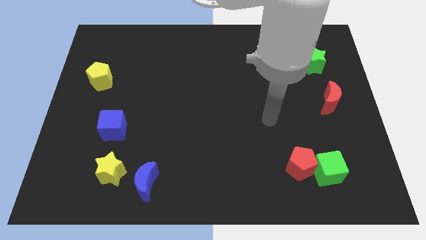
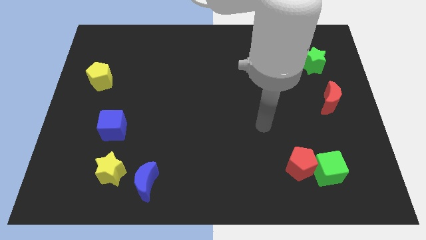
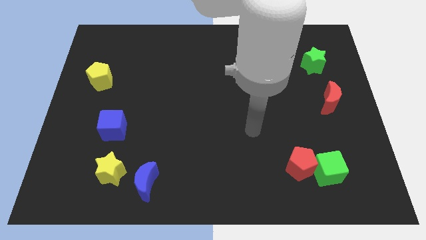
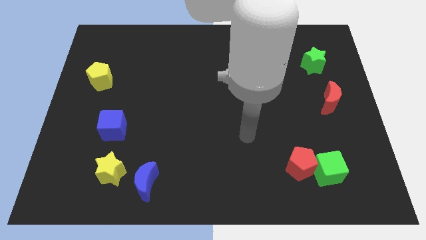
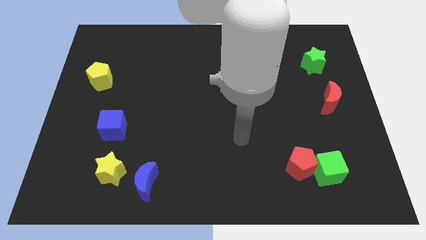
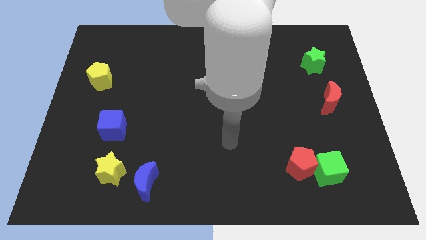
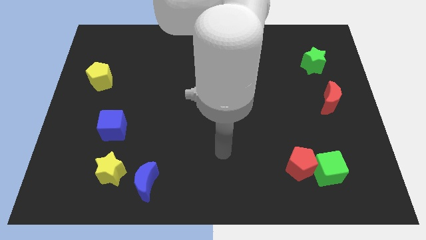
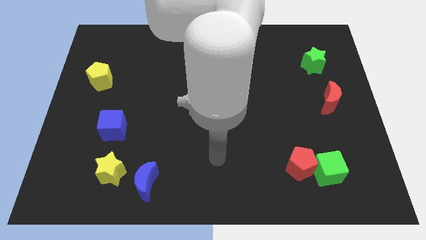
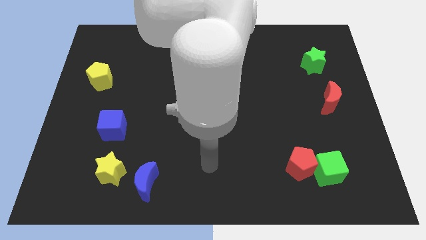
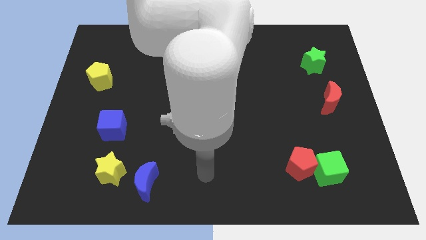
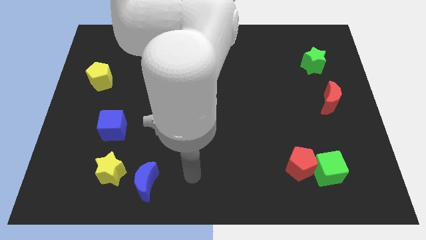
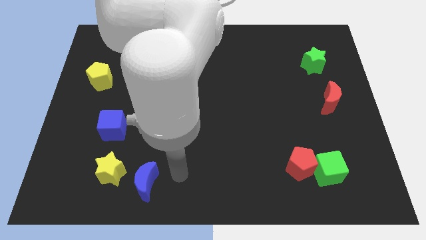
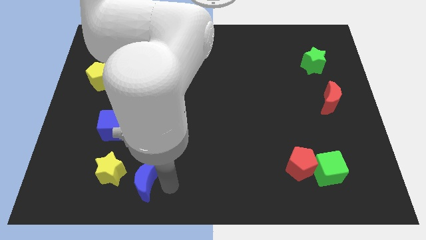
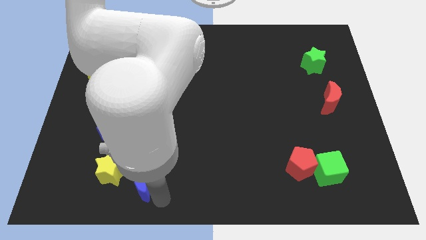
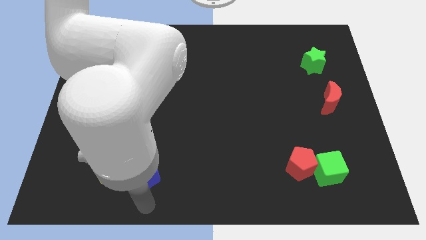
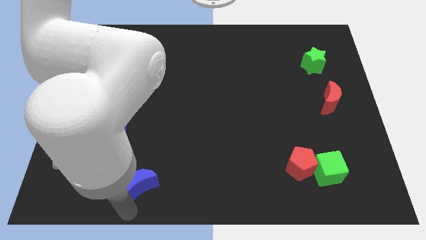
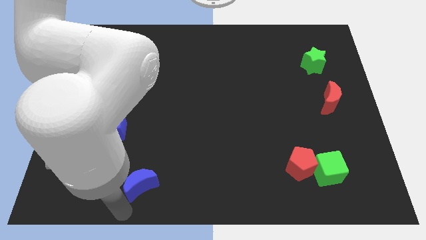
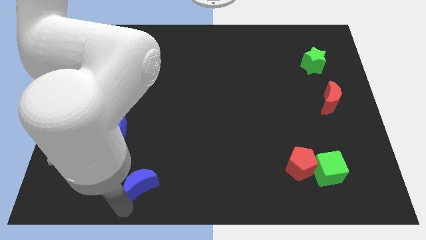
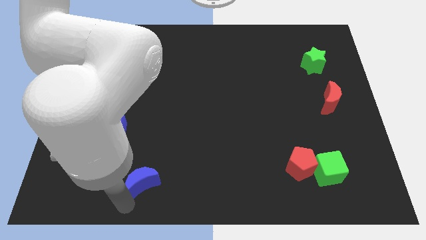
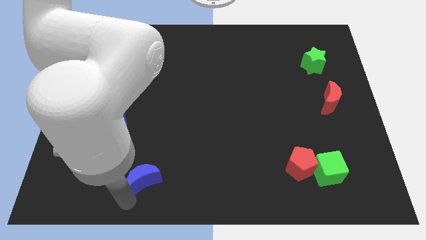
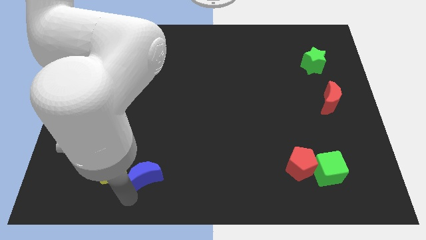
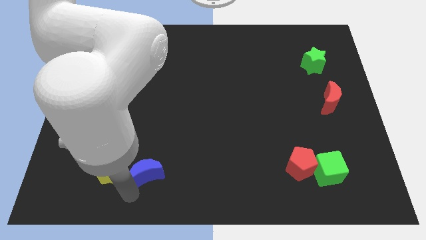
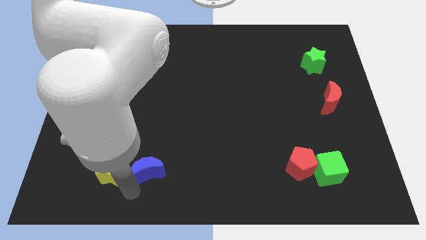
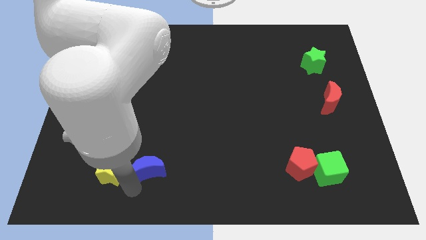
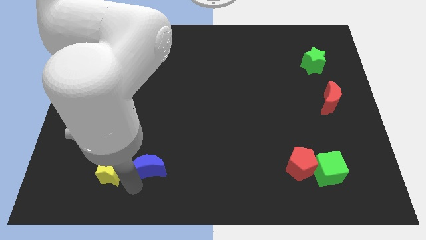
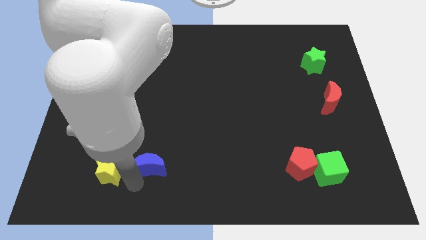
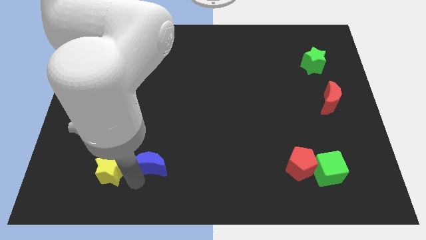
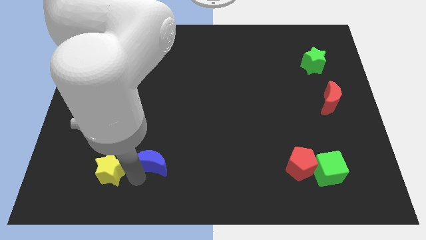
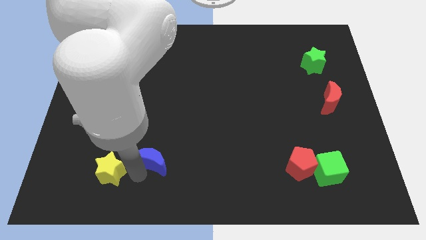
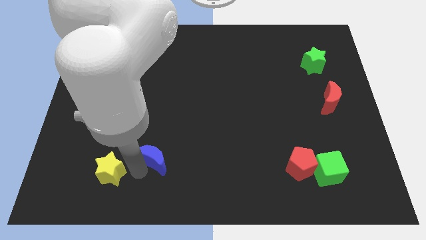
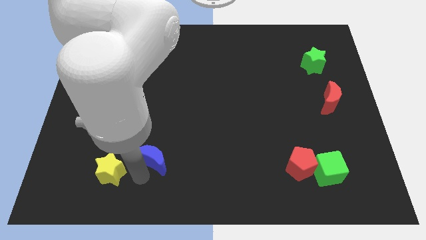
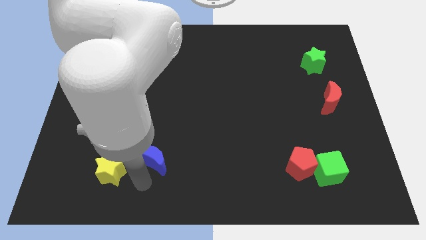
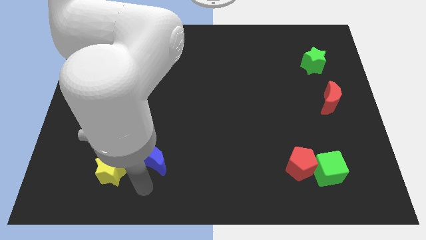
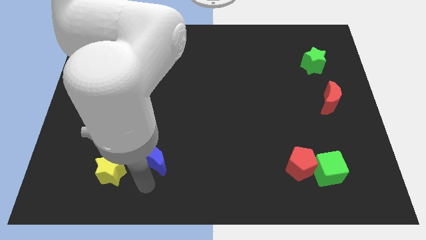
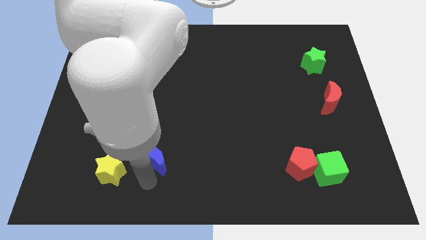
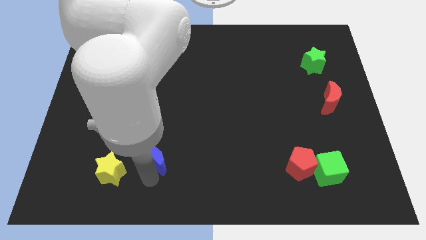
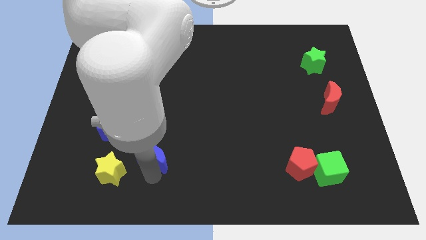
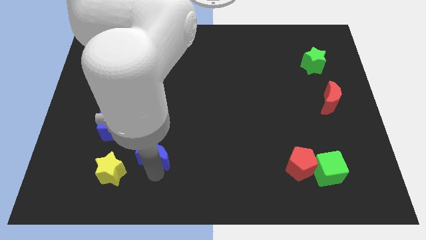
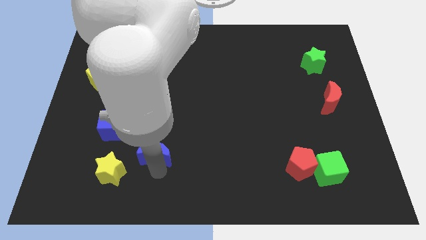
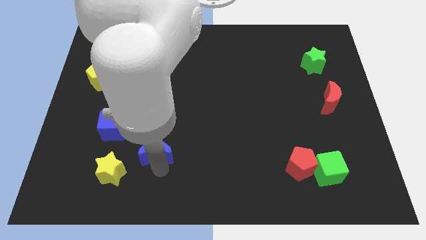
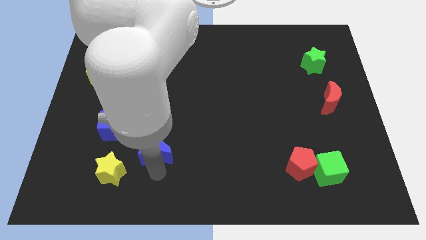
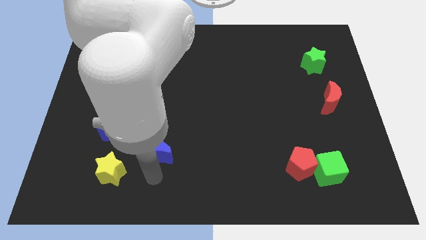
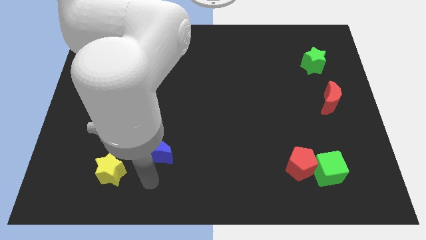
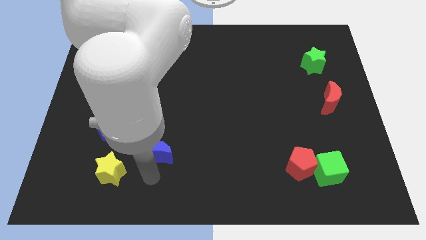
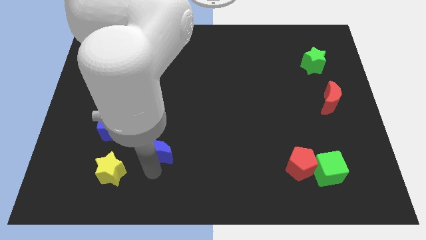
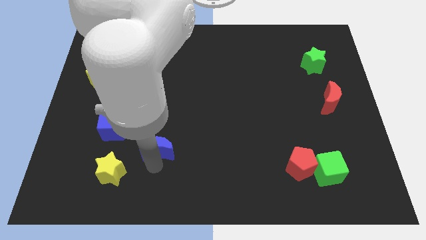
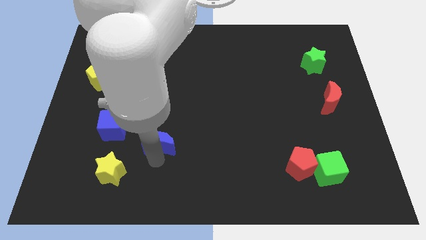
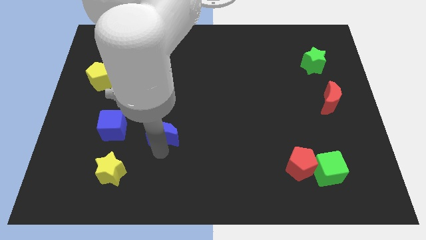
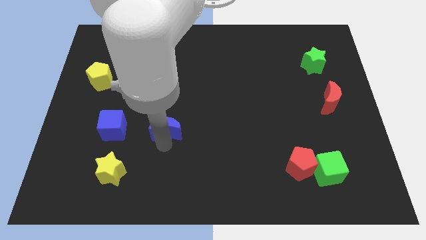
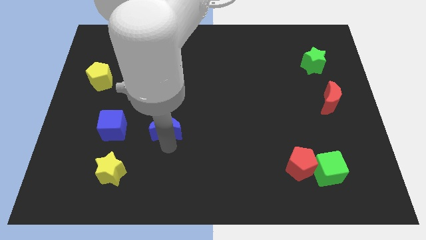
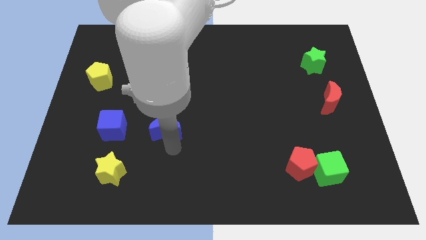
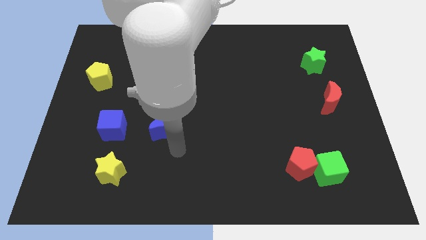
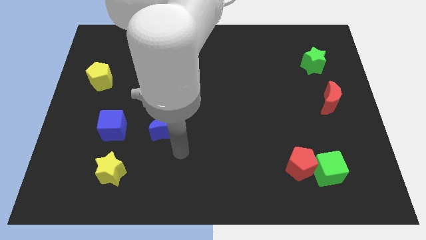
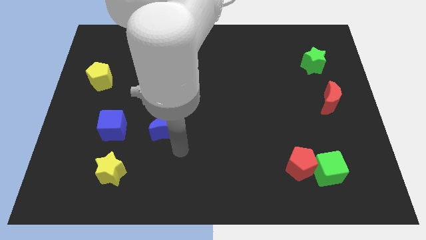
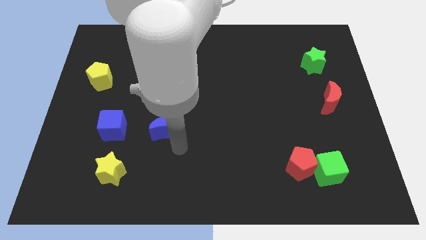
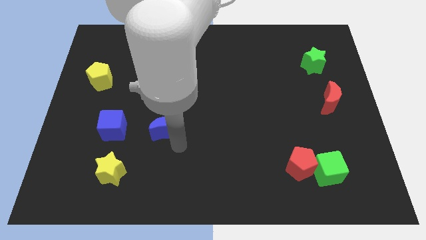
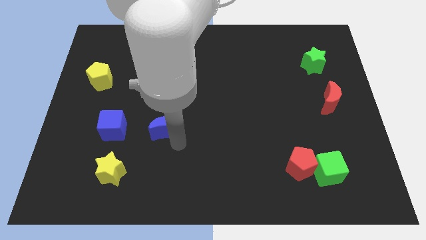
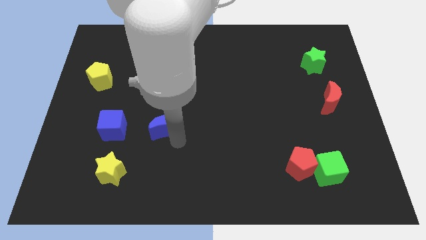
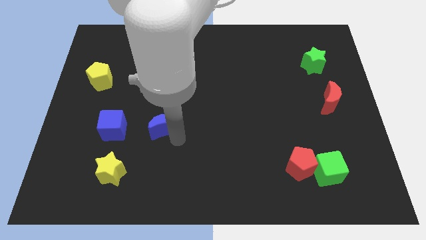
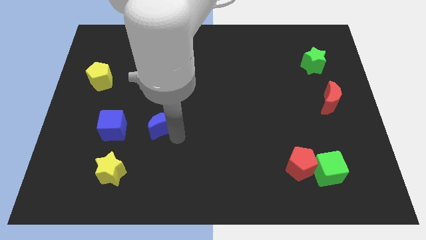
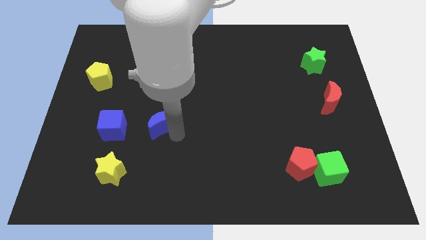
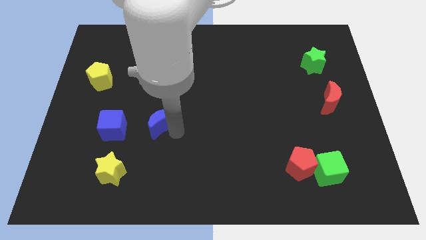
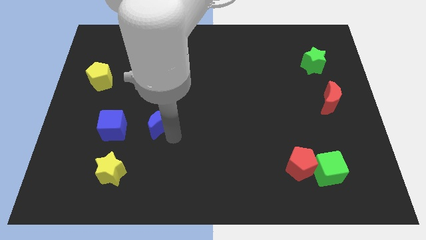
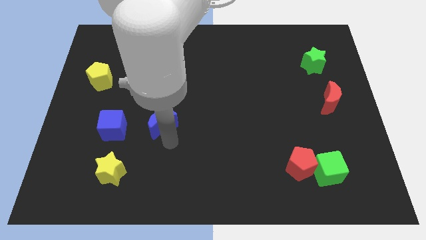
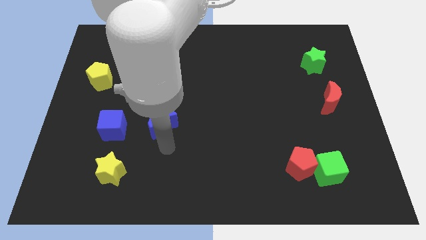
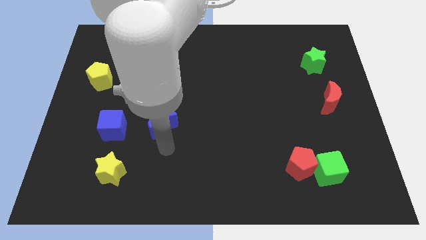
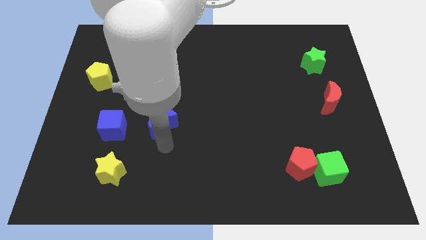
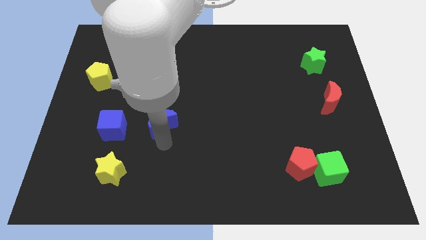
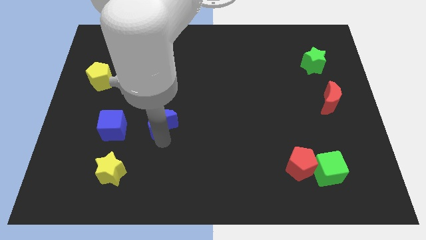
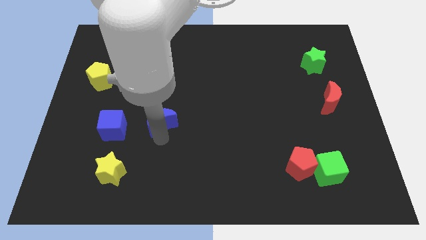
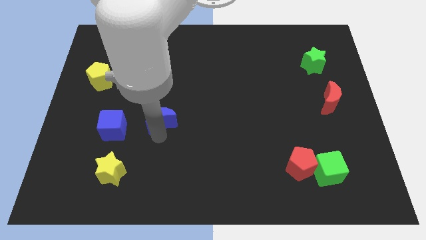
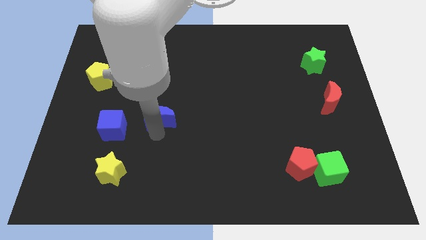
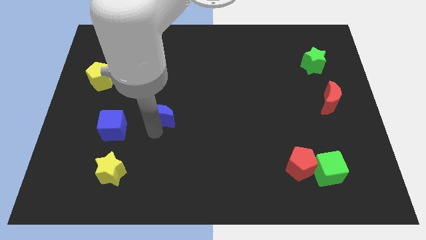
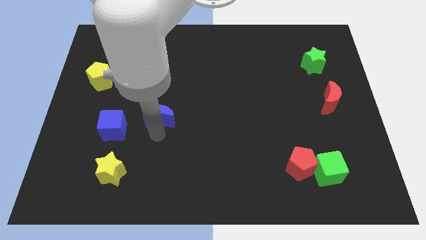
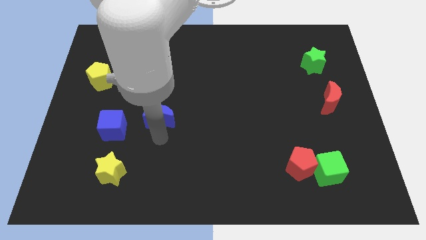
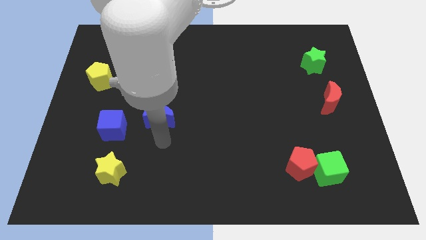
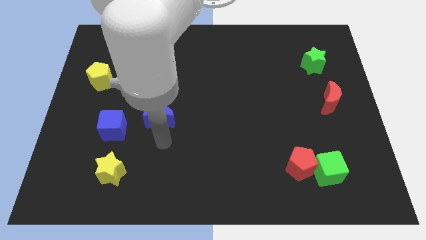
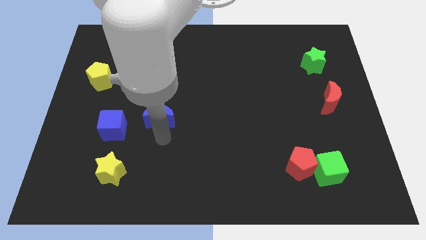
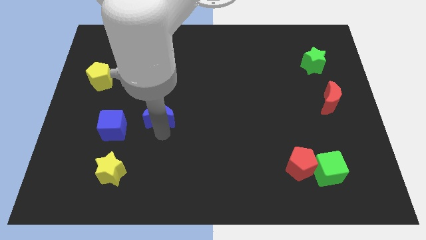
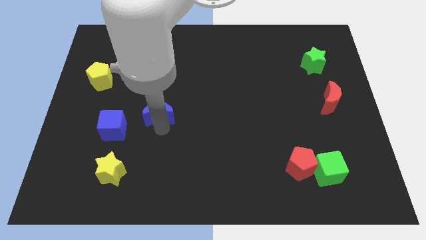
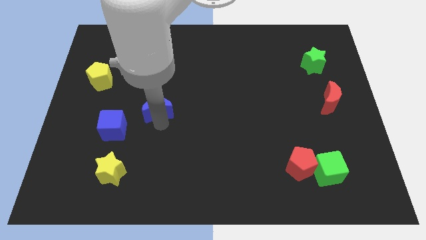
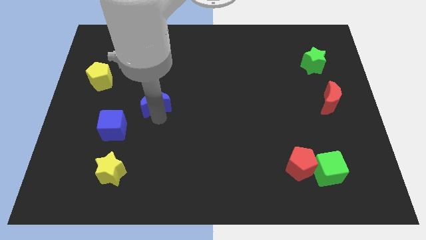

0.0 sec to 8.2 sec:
push the blue moon upwards
